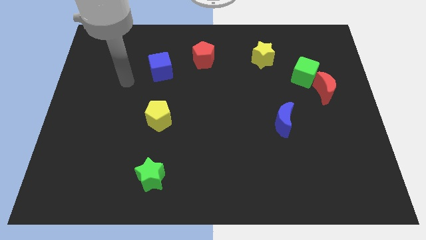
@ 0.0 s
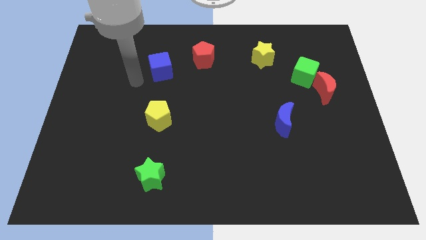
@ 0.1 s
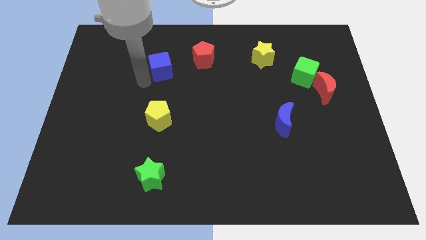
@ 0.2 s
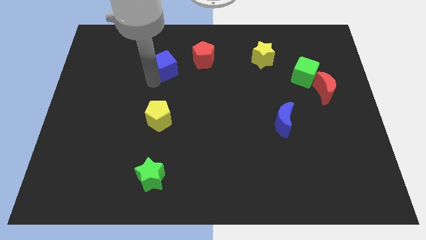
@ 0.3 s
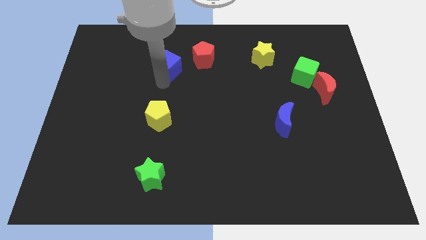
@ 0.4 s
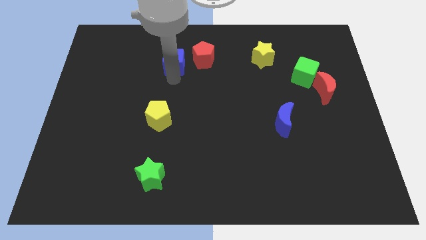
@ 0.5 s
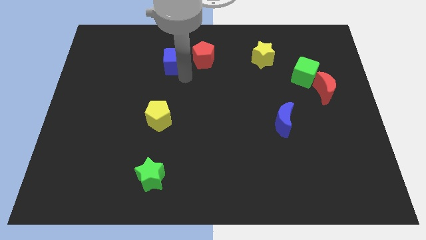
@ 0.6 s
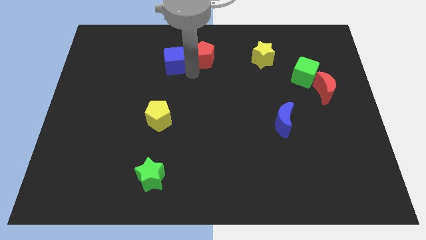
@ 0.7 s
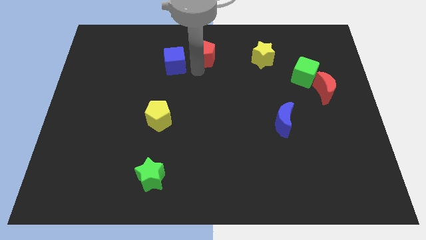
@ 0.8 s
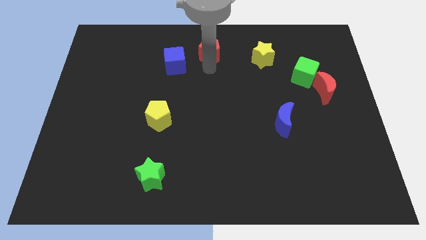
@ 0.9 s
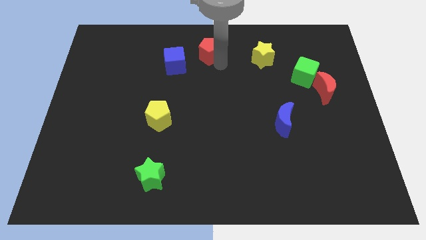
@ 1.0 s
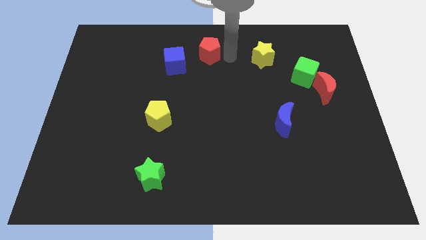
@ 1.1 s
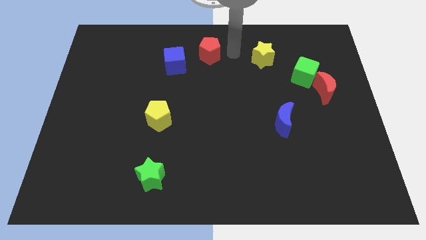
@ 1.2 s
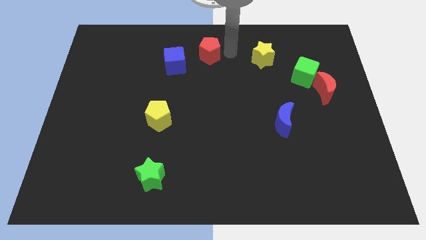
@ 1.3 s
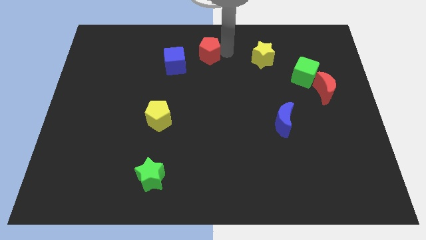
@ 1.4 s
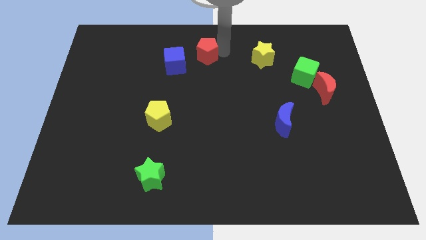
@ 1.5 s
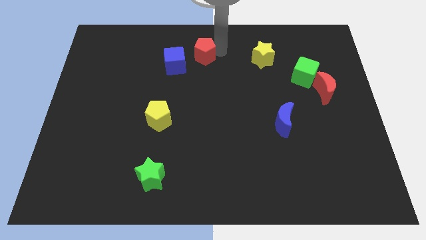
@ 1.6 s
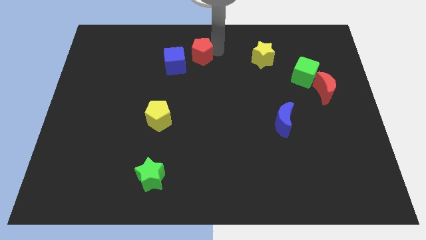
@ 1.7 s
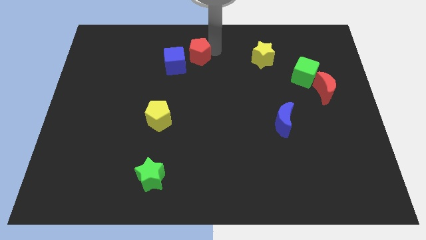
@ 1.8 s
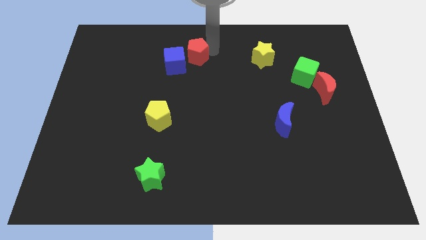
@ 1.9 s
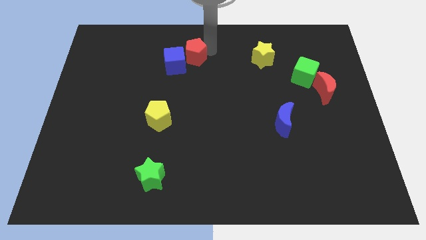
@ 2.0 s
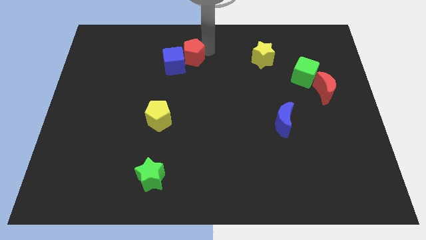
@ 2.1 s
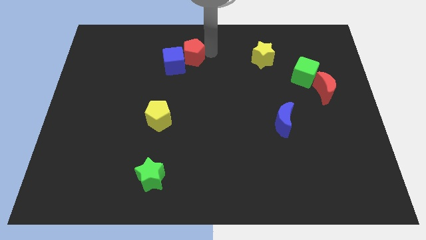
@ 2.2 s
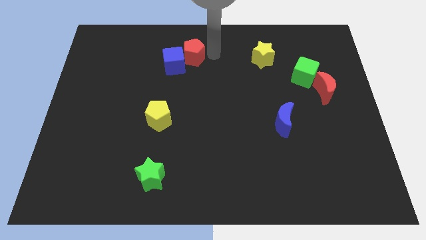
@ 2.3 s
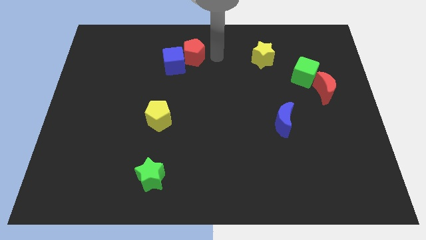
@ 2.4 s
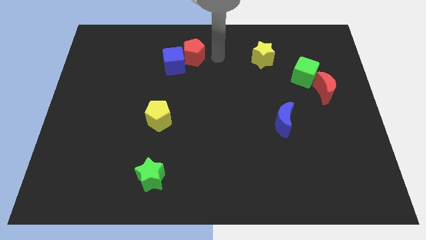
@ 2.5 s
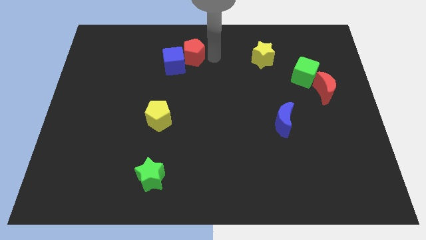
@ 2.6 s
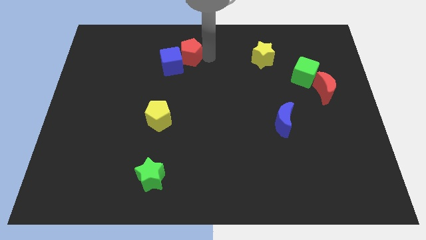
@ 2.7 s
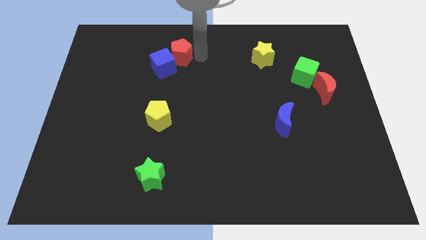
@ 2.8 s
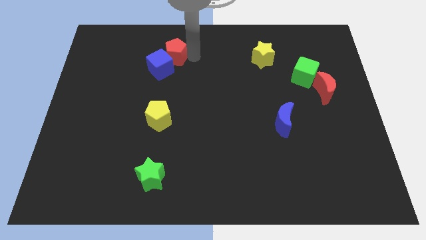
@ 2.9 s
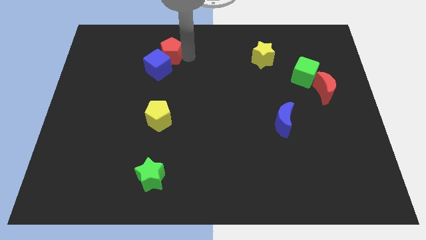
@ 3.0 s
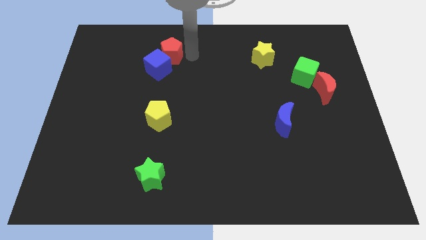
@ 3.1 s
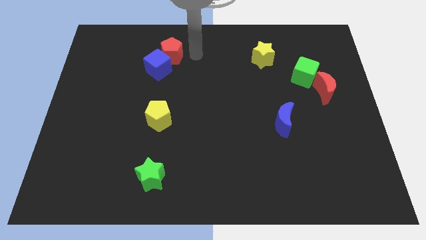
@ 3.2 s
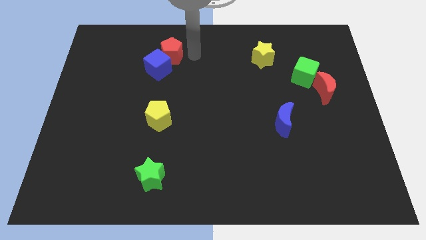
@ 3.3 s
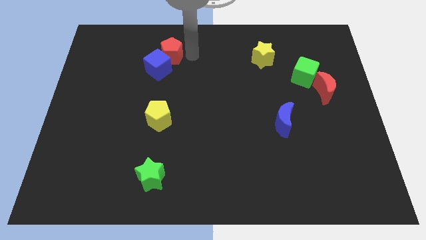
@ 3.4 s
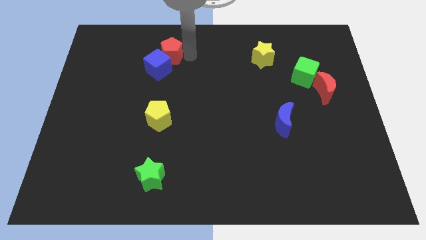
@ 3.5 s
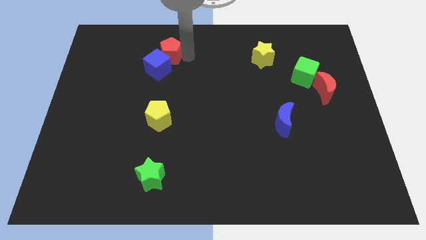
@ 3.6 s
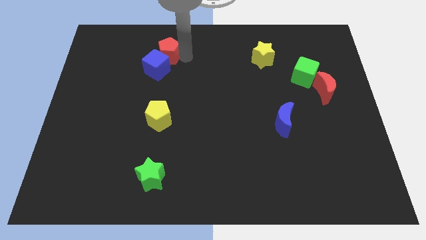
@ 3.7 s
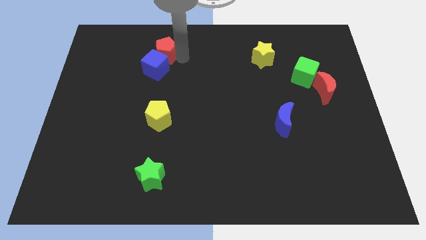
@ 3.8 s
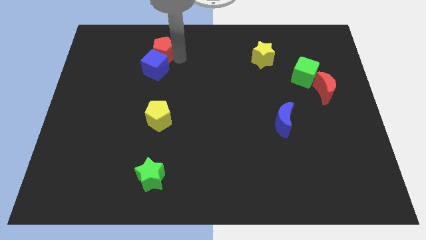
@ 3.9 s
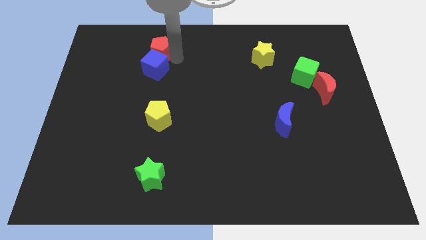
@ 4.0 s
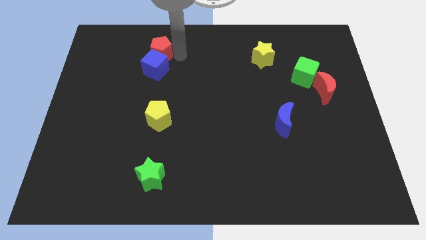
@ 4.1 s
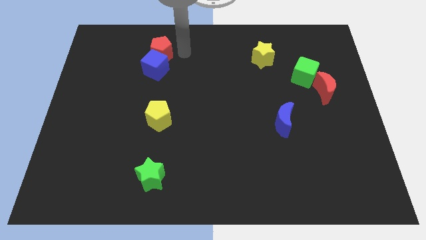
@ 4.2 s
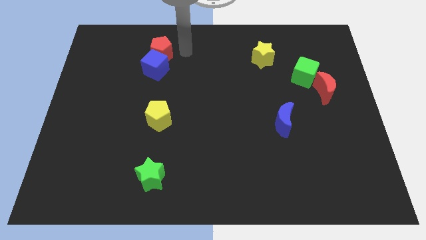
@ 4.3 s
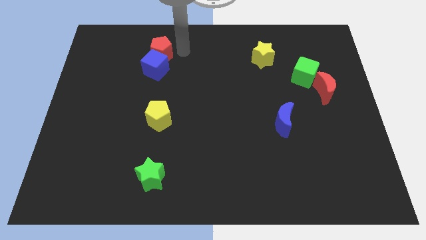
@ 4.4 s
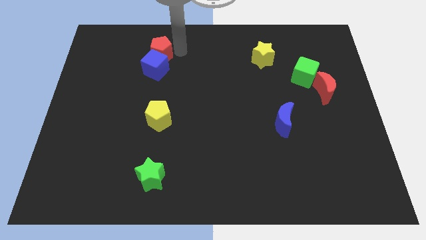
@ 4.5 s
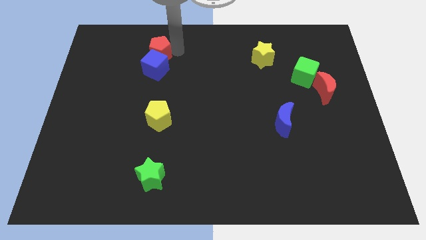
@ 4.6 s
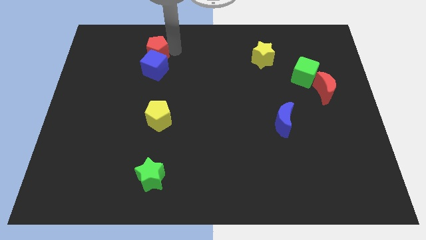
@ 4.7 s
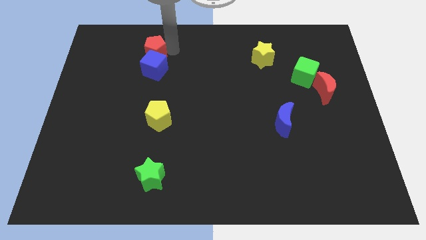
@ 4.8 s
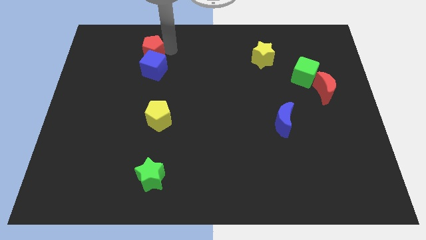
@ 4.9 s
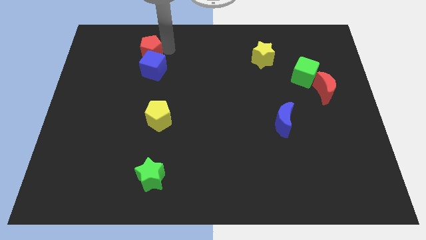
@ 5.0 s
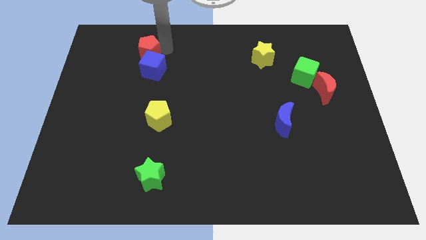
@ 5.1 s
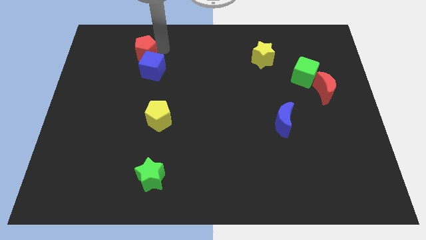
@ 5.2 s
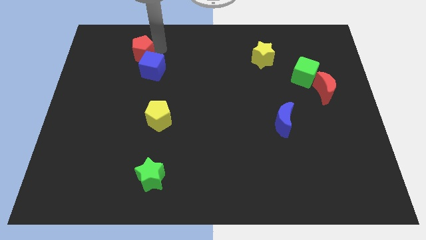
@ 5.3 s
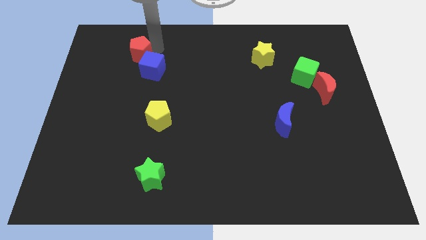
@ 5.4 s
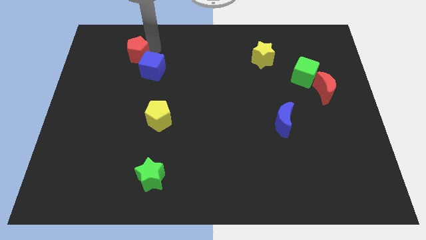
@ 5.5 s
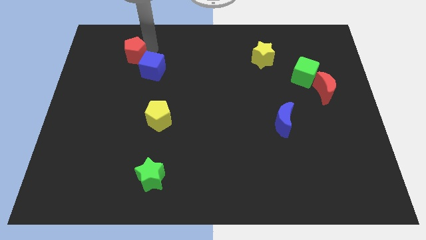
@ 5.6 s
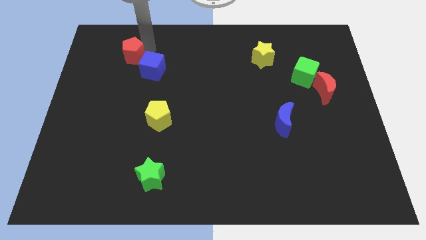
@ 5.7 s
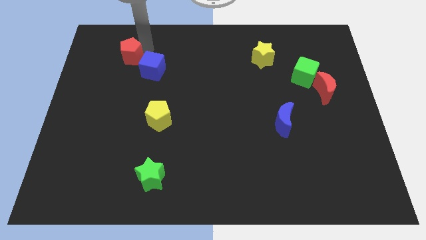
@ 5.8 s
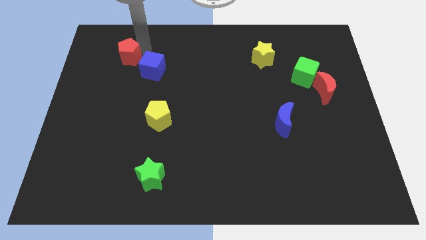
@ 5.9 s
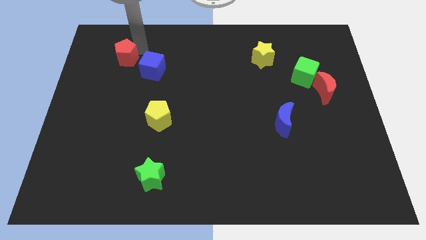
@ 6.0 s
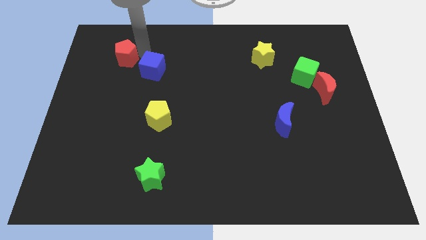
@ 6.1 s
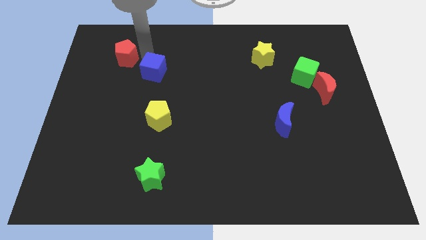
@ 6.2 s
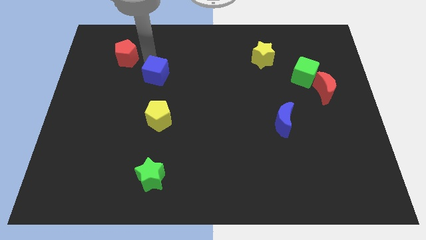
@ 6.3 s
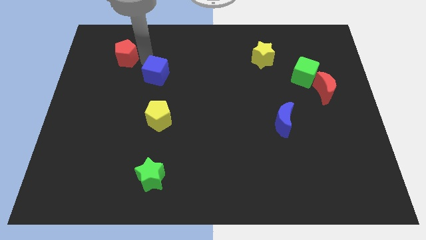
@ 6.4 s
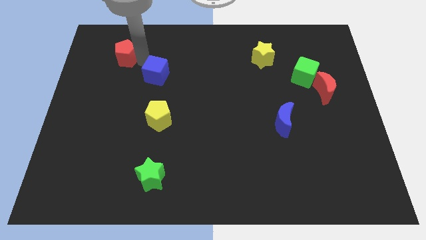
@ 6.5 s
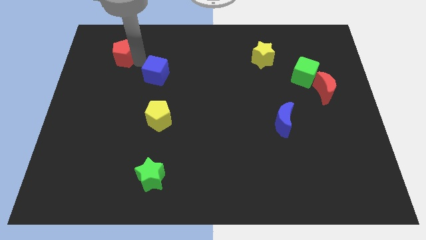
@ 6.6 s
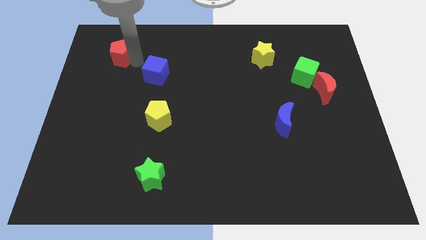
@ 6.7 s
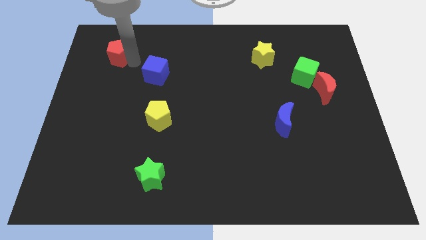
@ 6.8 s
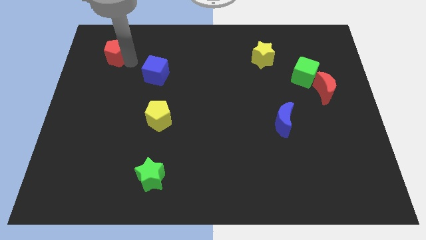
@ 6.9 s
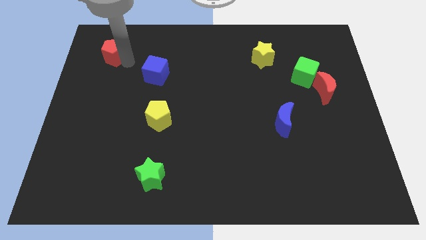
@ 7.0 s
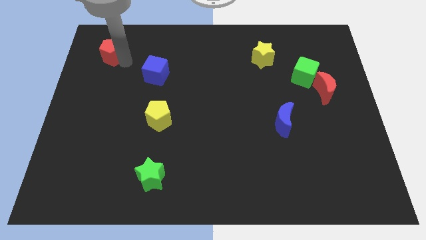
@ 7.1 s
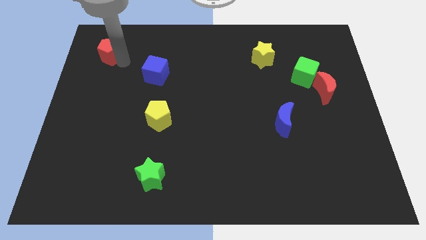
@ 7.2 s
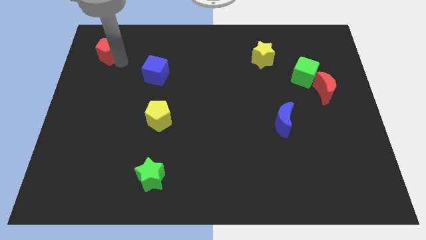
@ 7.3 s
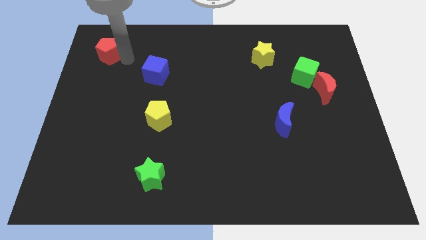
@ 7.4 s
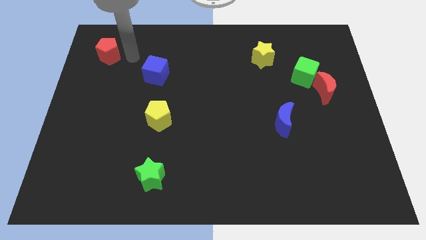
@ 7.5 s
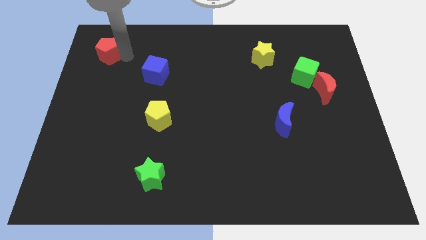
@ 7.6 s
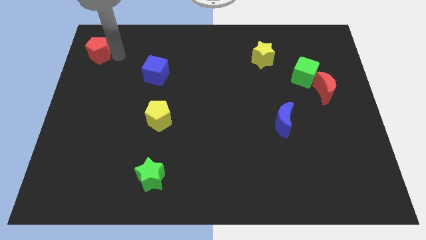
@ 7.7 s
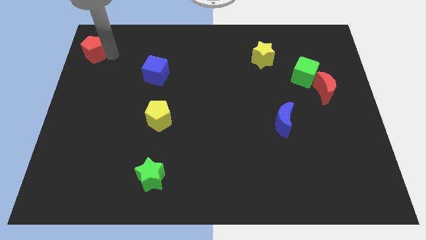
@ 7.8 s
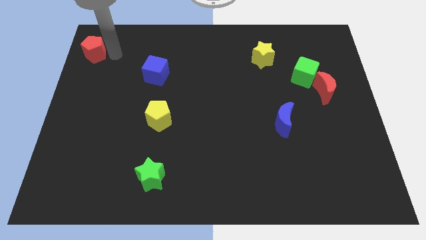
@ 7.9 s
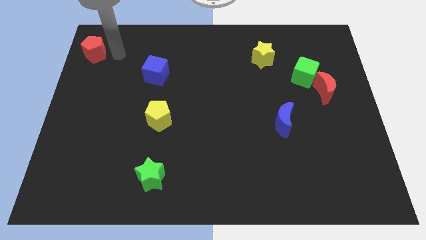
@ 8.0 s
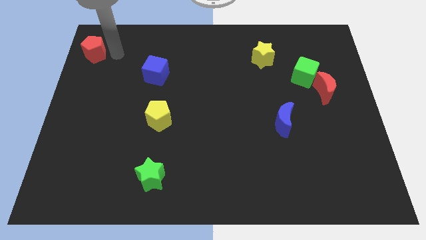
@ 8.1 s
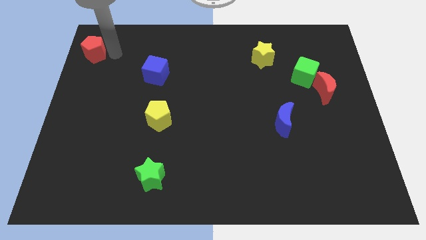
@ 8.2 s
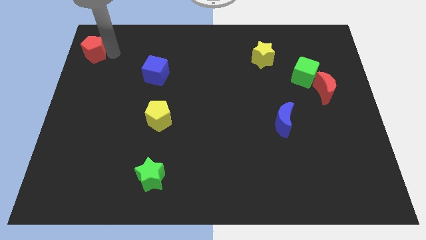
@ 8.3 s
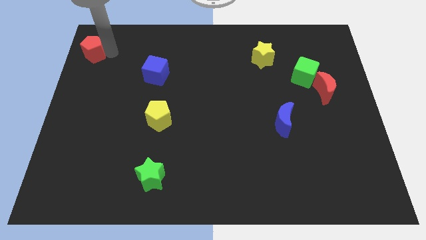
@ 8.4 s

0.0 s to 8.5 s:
push the red pentagon to the upper left corner
